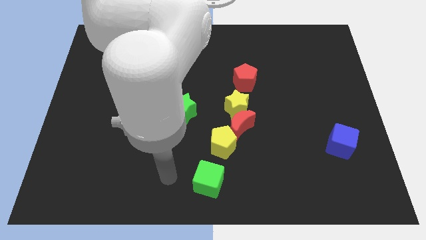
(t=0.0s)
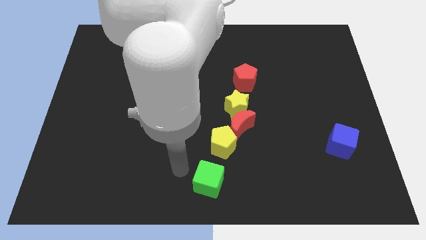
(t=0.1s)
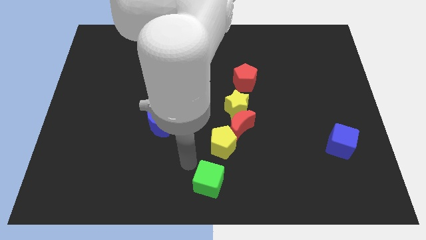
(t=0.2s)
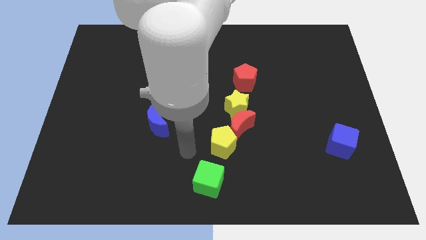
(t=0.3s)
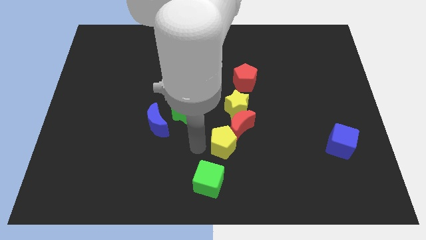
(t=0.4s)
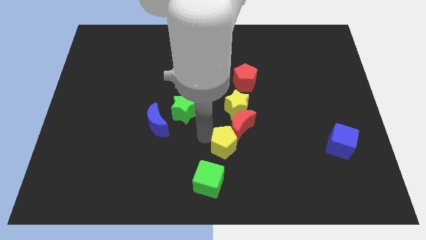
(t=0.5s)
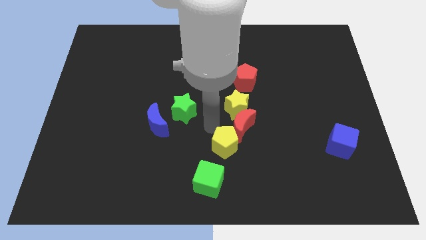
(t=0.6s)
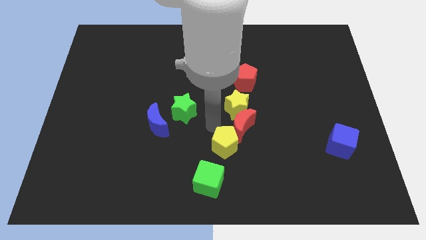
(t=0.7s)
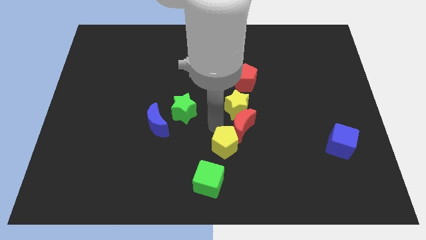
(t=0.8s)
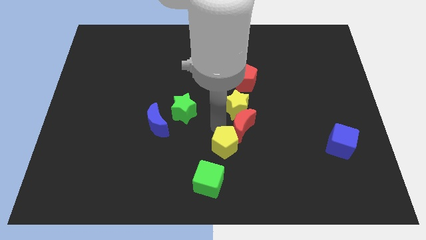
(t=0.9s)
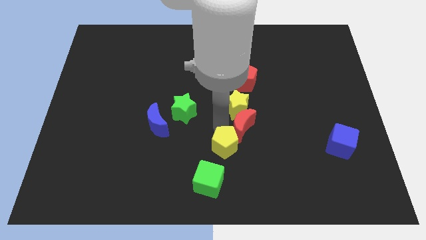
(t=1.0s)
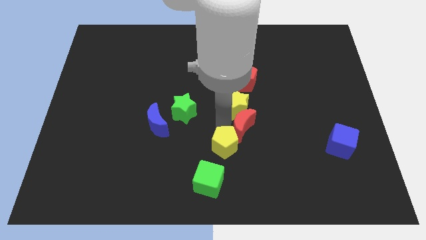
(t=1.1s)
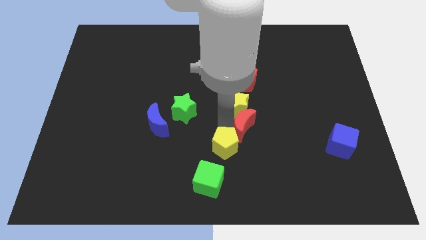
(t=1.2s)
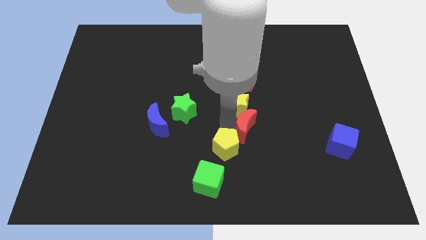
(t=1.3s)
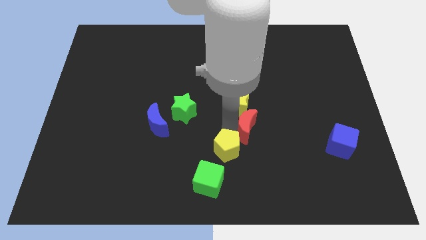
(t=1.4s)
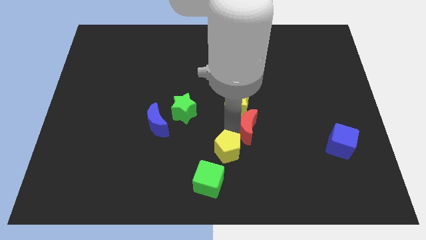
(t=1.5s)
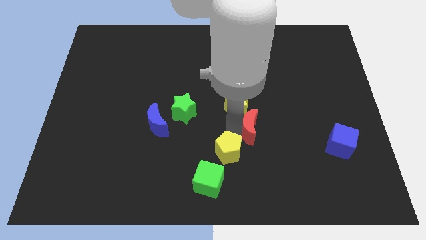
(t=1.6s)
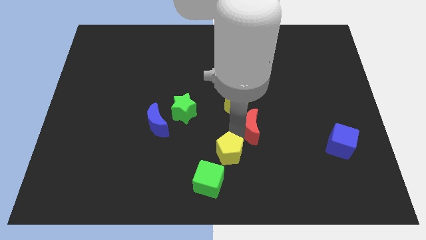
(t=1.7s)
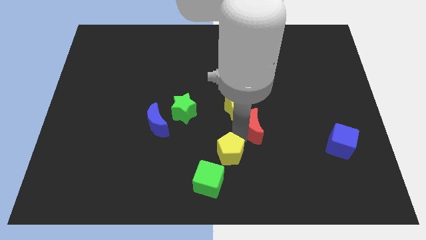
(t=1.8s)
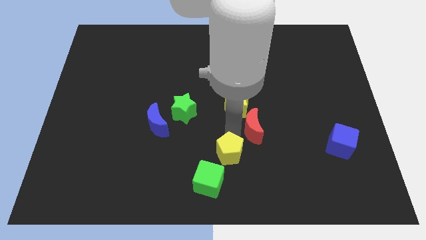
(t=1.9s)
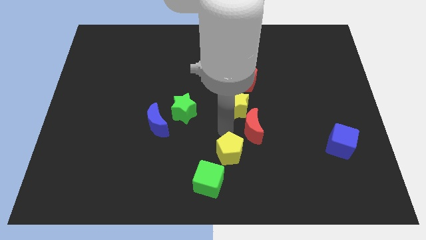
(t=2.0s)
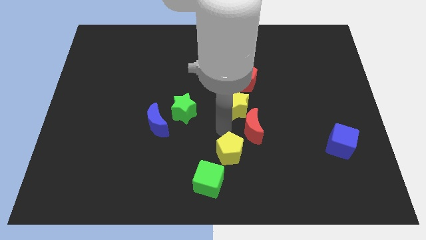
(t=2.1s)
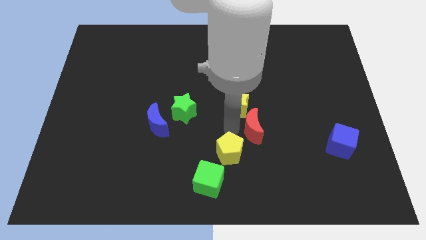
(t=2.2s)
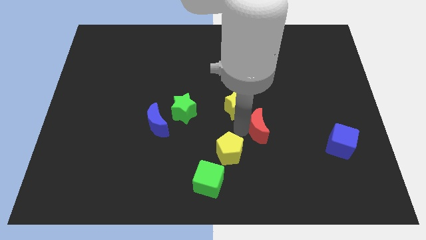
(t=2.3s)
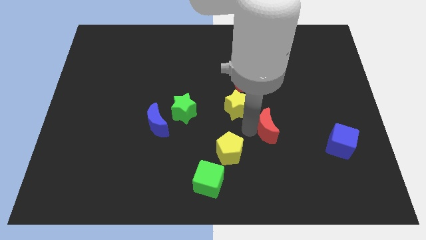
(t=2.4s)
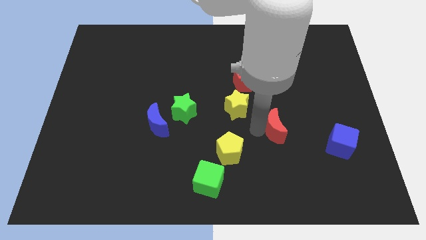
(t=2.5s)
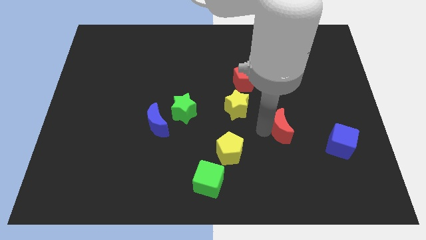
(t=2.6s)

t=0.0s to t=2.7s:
pull the red moon apart from the yellow star and yellow pentagon

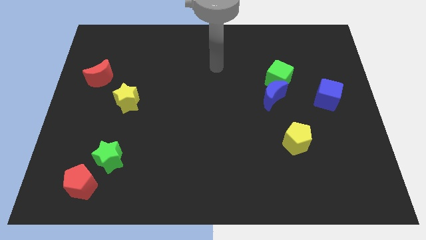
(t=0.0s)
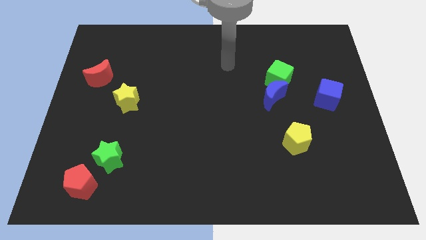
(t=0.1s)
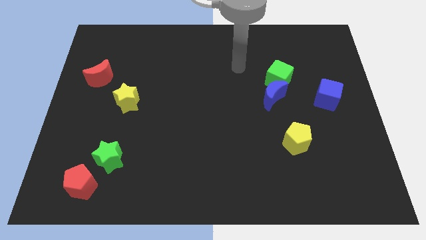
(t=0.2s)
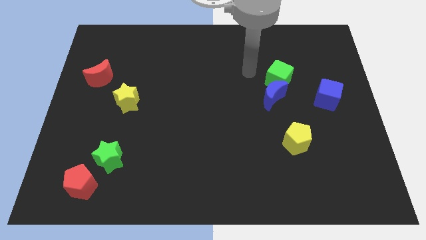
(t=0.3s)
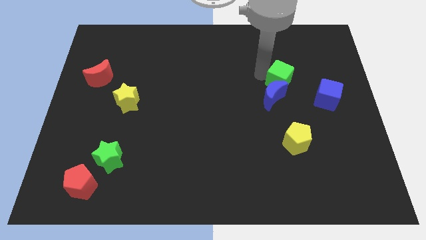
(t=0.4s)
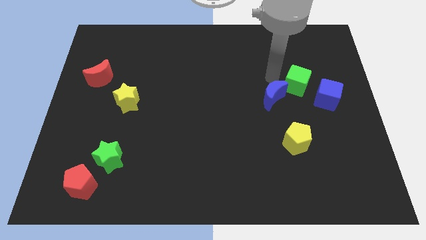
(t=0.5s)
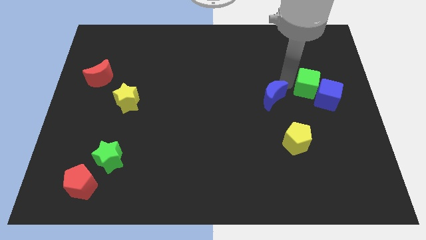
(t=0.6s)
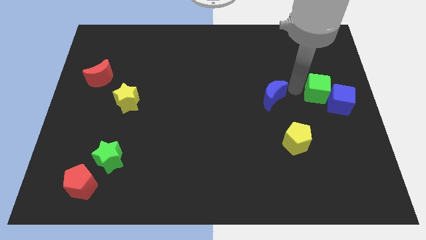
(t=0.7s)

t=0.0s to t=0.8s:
separate the blue moon from the green cube

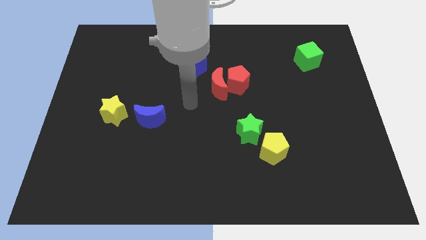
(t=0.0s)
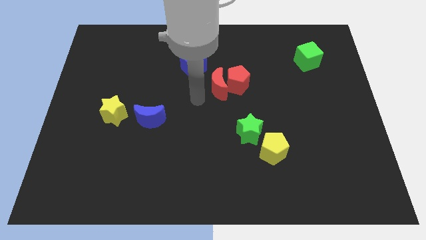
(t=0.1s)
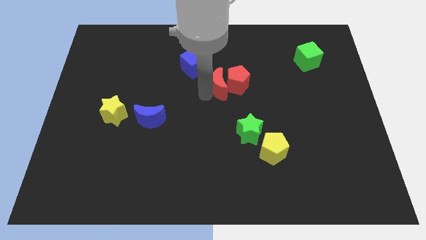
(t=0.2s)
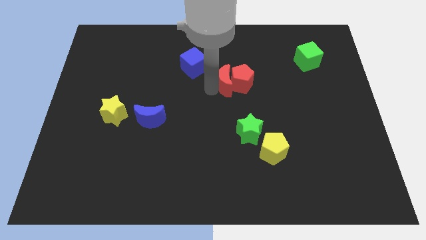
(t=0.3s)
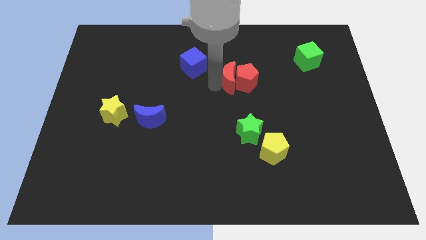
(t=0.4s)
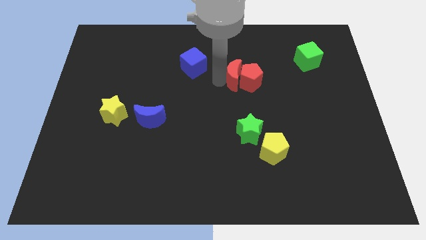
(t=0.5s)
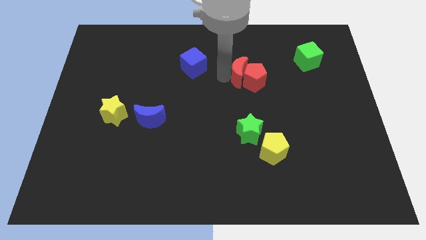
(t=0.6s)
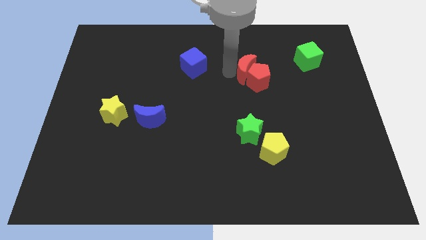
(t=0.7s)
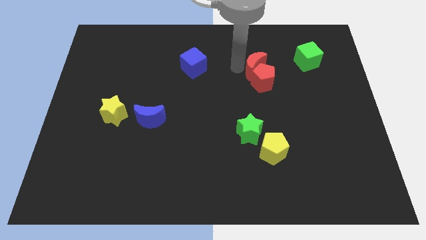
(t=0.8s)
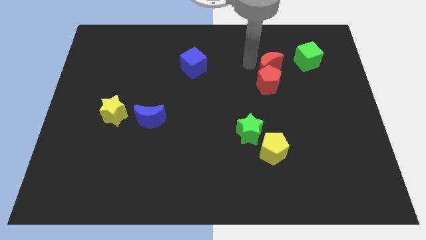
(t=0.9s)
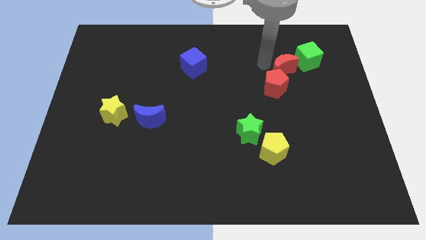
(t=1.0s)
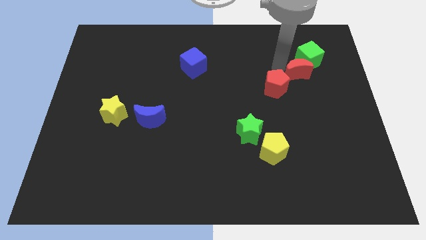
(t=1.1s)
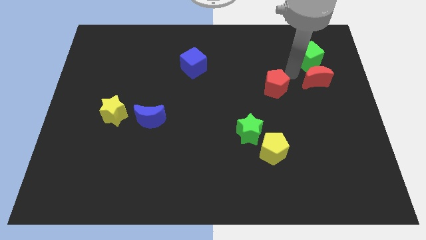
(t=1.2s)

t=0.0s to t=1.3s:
move the red pentagon away from the red moon

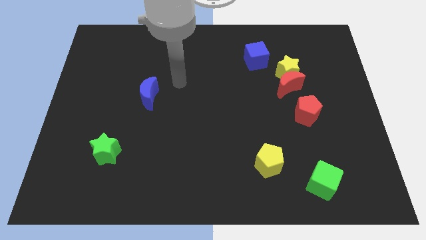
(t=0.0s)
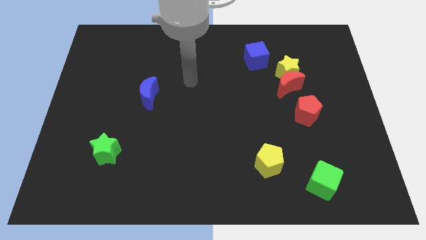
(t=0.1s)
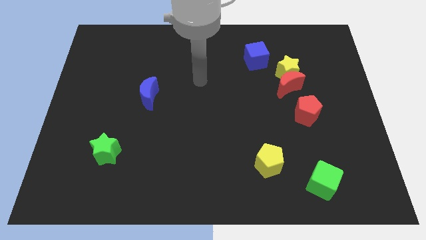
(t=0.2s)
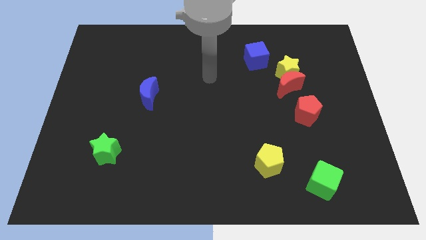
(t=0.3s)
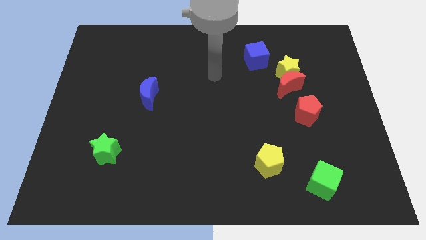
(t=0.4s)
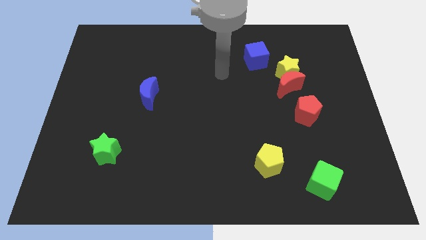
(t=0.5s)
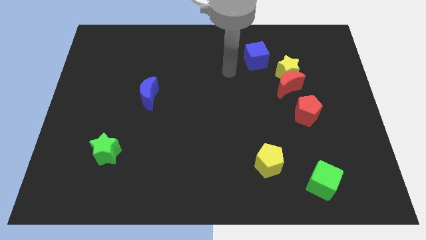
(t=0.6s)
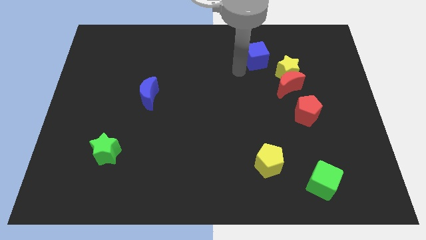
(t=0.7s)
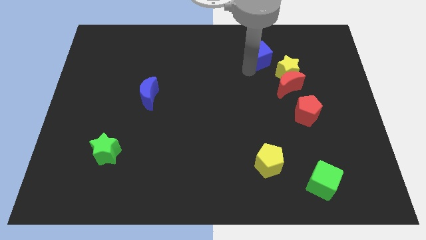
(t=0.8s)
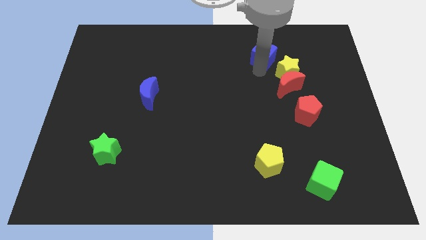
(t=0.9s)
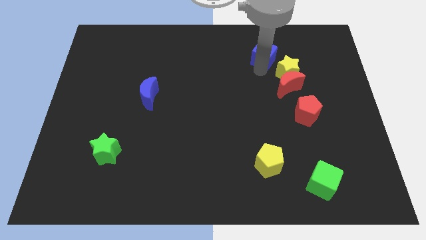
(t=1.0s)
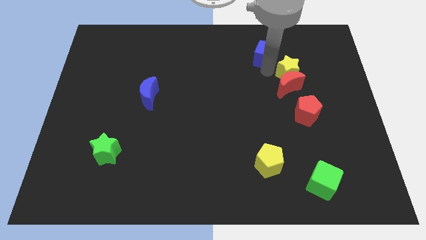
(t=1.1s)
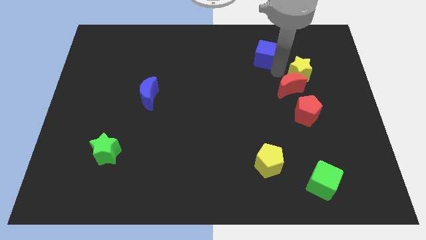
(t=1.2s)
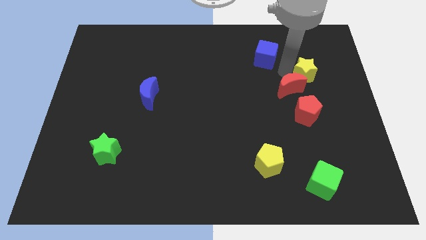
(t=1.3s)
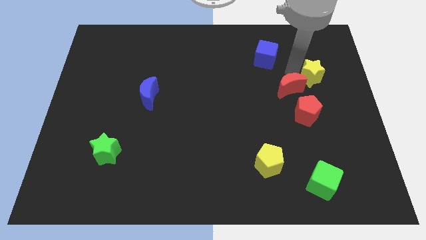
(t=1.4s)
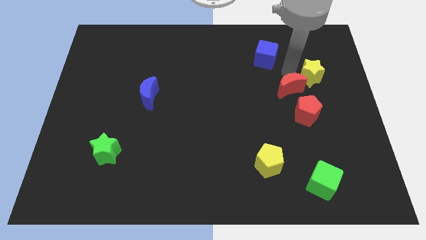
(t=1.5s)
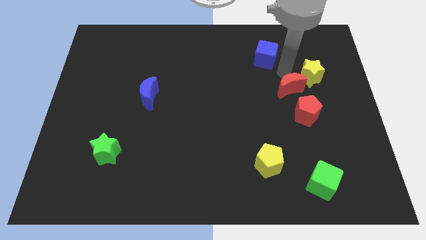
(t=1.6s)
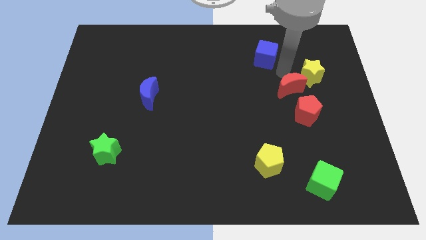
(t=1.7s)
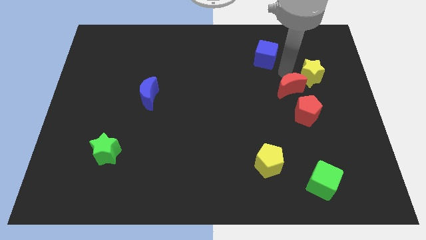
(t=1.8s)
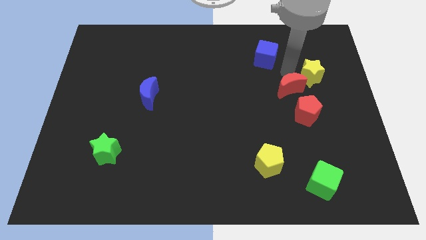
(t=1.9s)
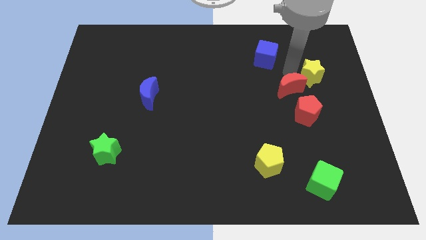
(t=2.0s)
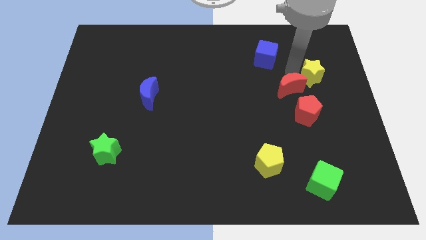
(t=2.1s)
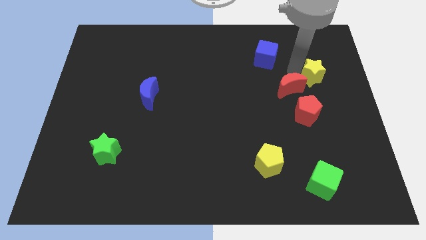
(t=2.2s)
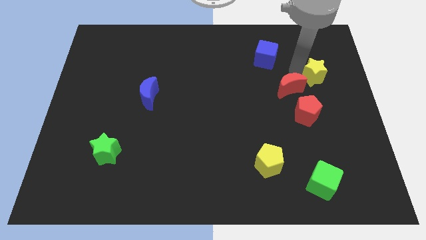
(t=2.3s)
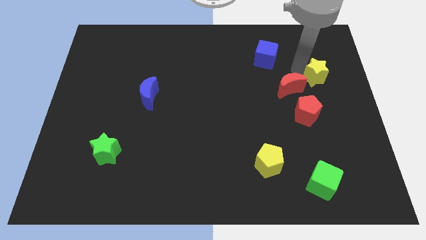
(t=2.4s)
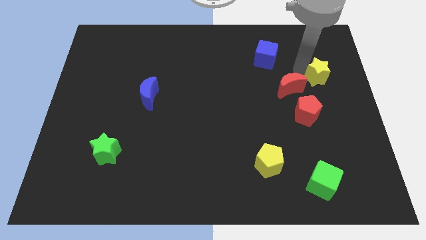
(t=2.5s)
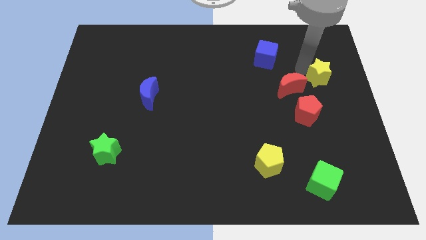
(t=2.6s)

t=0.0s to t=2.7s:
pull the yellow star apart from the red moon and blue cube

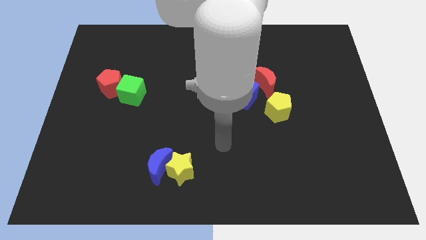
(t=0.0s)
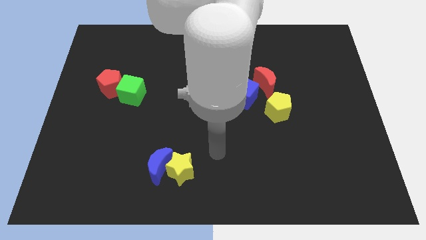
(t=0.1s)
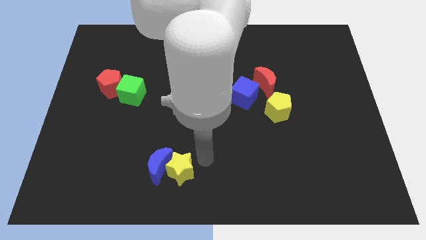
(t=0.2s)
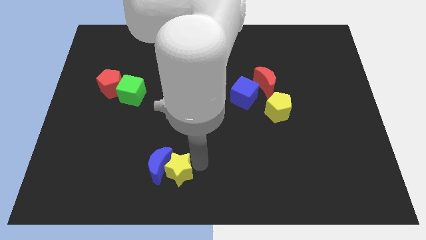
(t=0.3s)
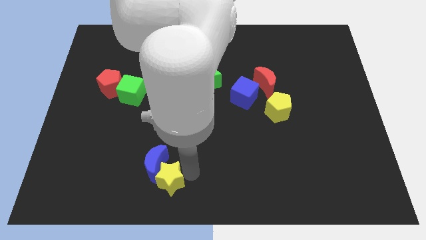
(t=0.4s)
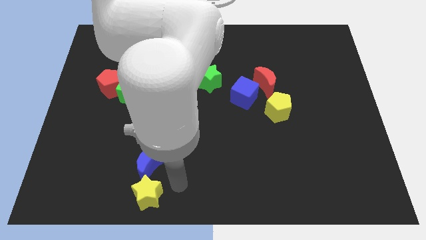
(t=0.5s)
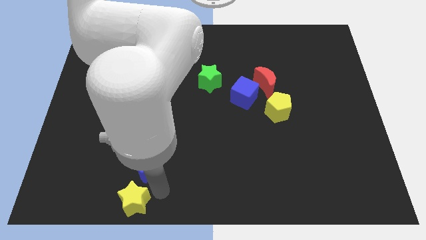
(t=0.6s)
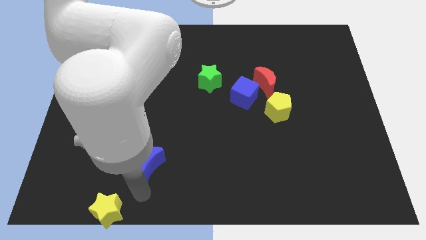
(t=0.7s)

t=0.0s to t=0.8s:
pull the blue moon apart from the yellow star

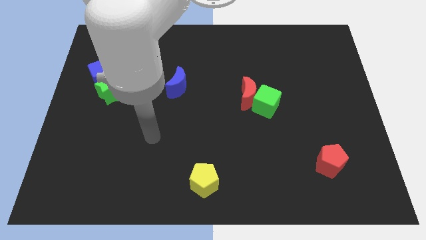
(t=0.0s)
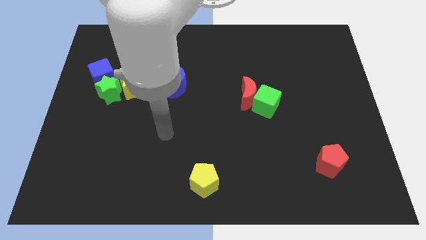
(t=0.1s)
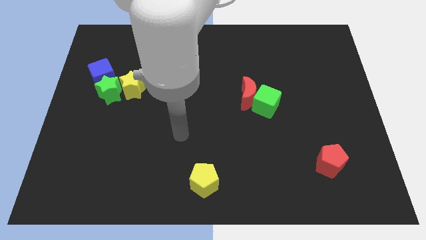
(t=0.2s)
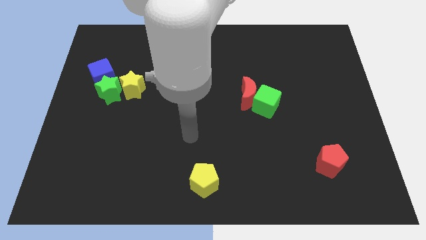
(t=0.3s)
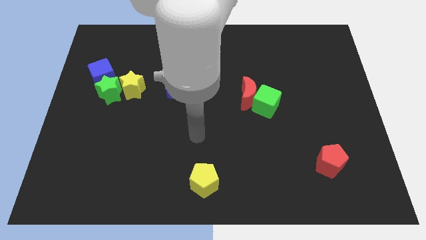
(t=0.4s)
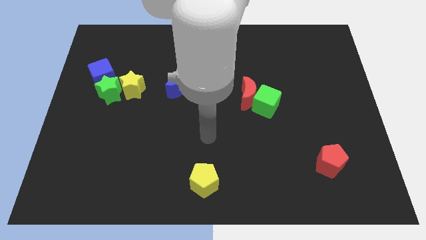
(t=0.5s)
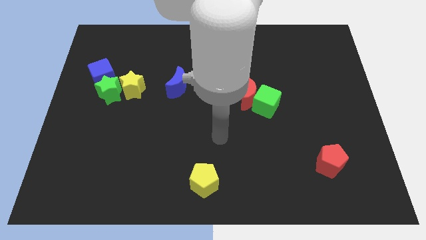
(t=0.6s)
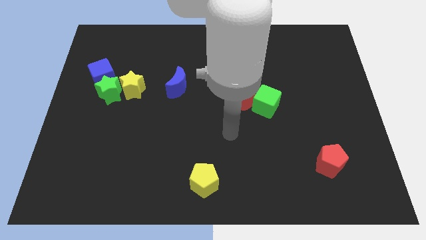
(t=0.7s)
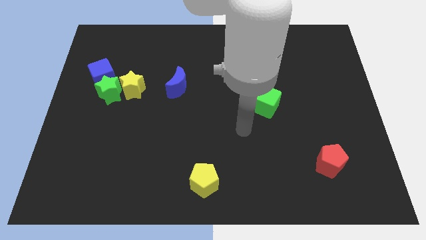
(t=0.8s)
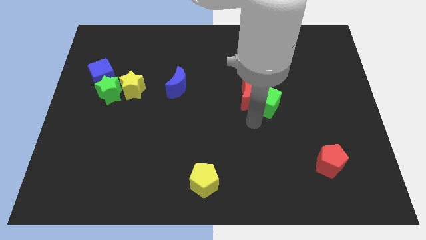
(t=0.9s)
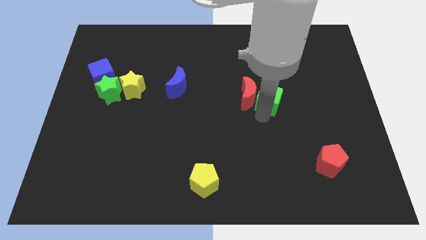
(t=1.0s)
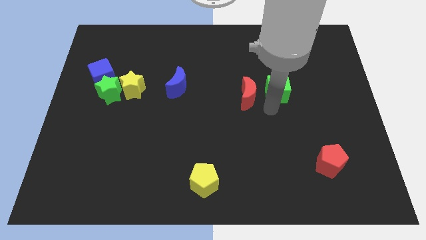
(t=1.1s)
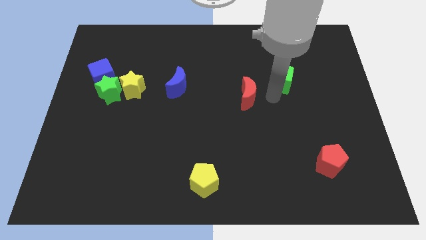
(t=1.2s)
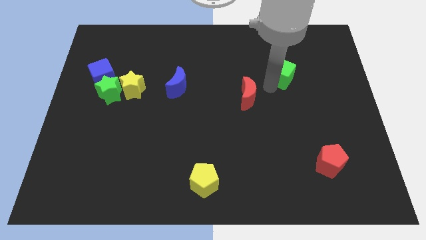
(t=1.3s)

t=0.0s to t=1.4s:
separate the red moon from the green cube
